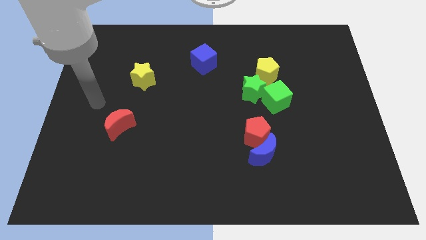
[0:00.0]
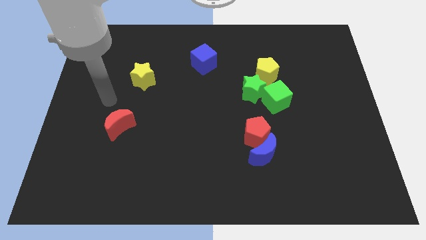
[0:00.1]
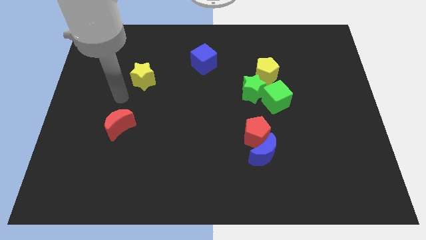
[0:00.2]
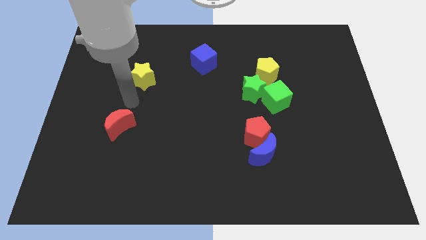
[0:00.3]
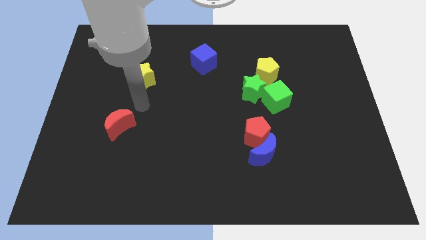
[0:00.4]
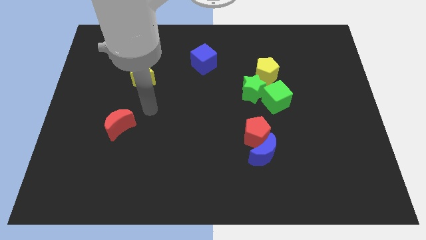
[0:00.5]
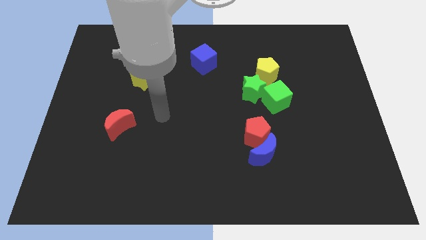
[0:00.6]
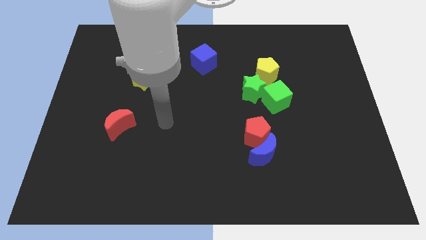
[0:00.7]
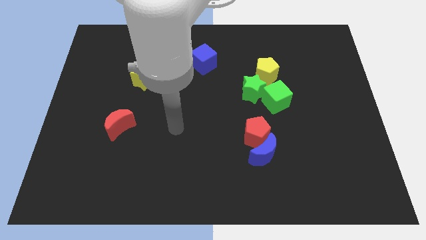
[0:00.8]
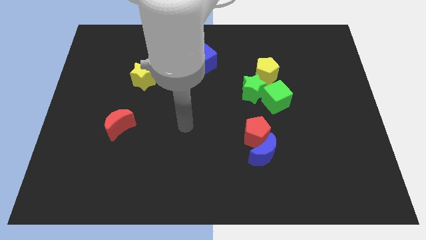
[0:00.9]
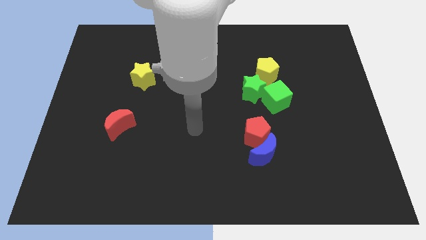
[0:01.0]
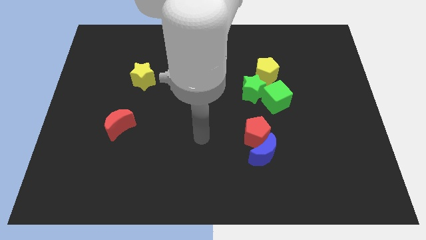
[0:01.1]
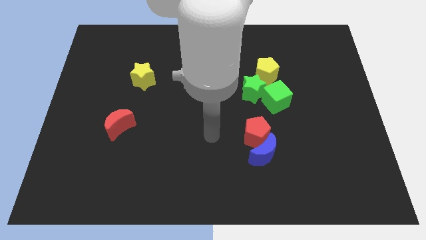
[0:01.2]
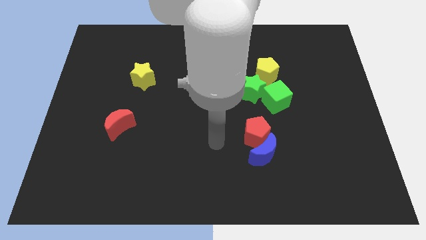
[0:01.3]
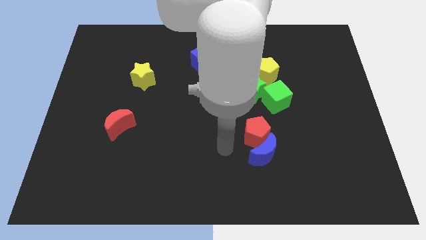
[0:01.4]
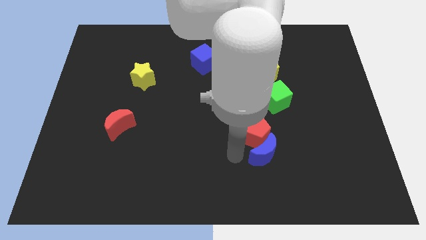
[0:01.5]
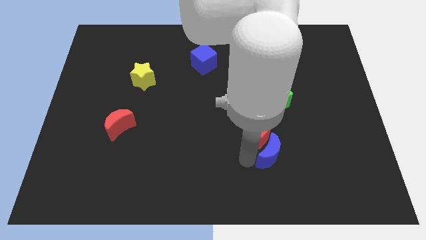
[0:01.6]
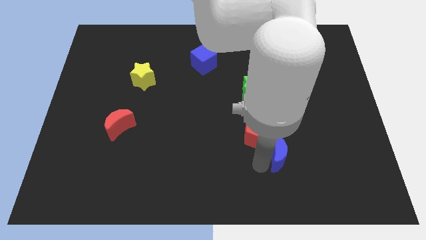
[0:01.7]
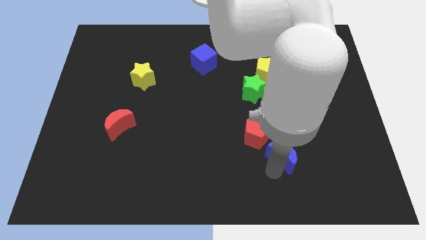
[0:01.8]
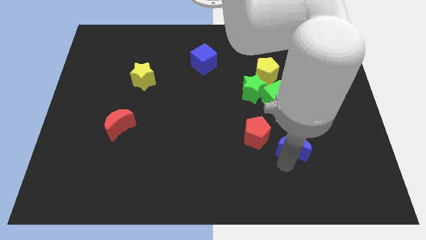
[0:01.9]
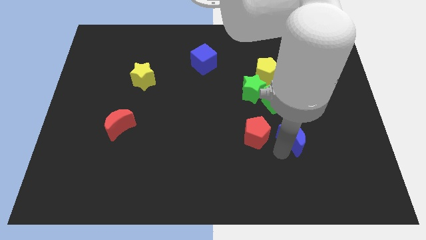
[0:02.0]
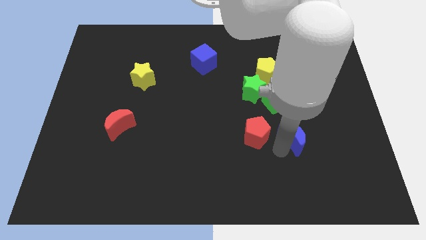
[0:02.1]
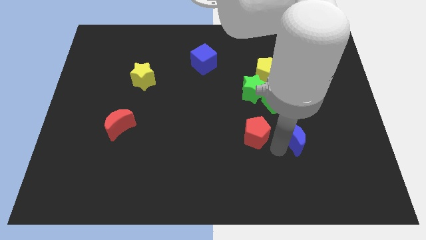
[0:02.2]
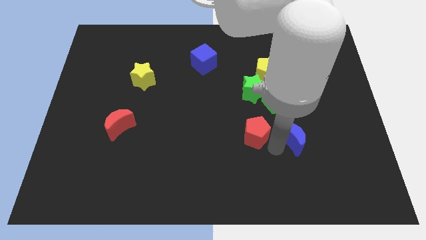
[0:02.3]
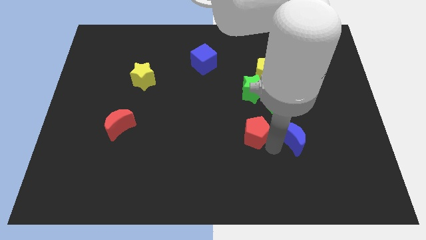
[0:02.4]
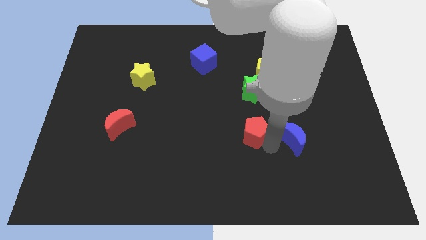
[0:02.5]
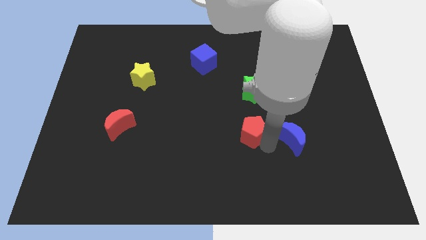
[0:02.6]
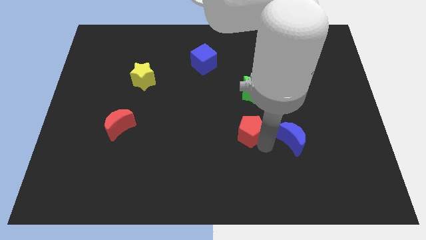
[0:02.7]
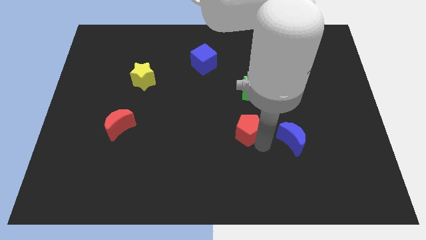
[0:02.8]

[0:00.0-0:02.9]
pull the red pentagon apart from the blue moon

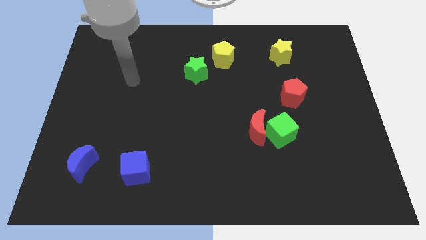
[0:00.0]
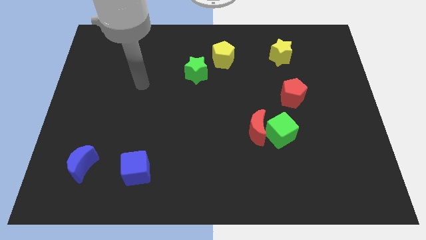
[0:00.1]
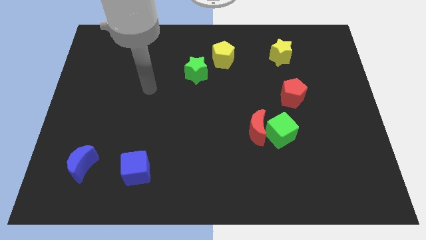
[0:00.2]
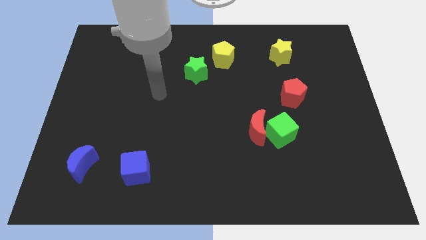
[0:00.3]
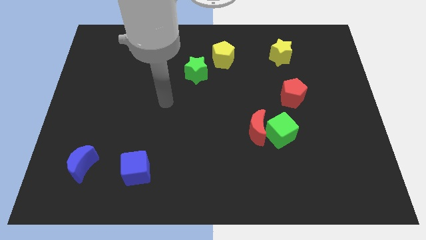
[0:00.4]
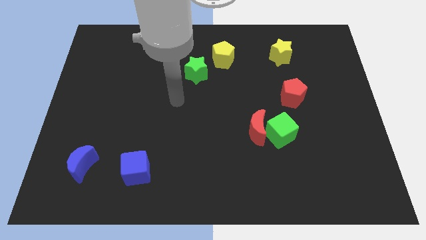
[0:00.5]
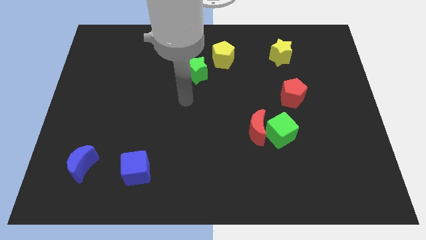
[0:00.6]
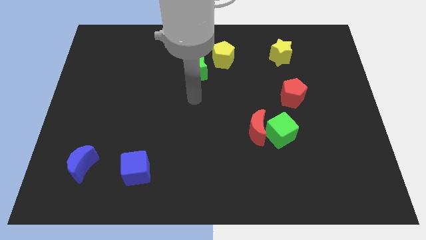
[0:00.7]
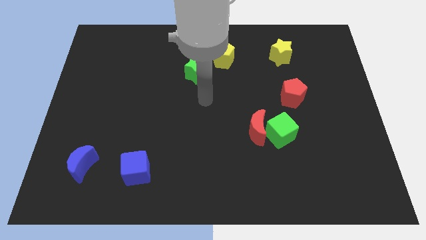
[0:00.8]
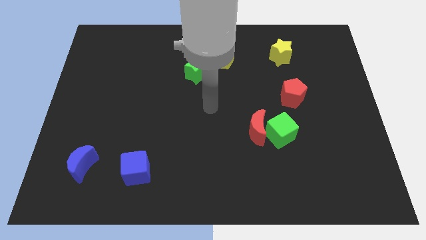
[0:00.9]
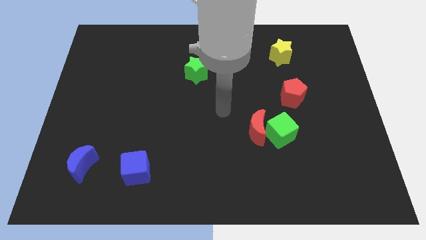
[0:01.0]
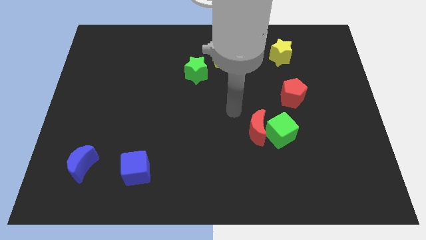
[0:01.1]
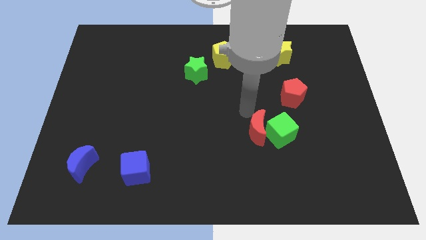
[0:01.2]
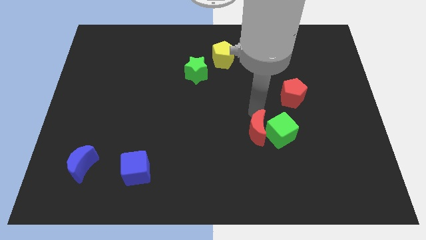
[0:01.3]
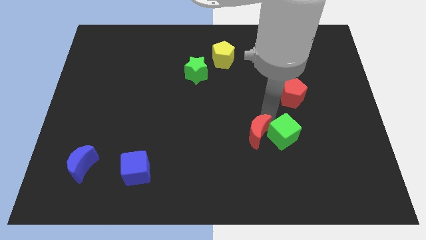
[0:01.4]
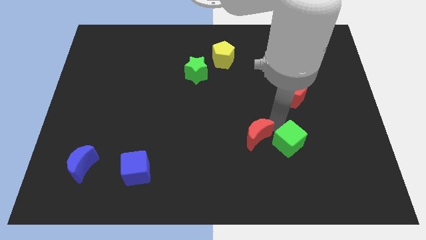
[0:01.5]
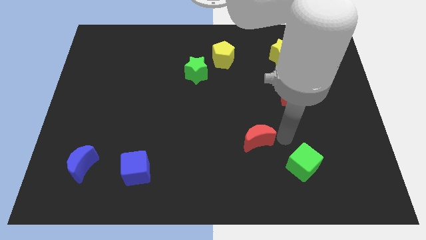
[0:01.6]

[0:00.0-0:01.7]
move the red moon away from the green cube

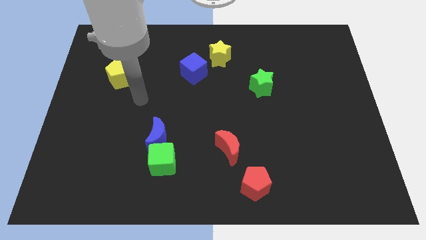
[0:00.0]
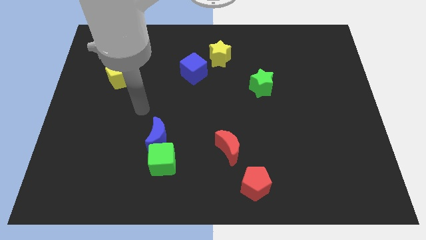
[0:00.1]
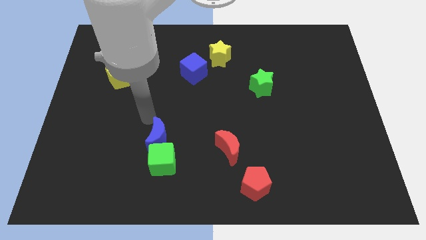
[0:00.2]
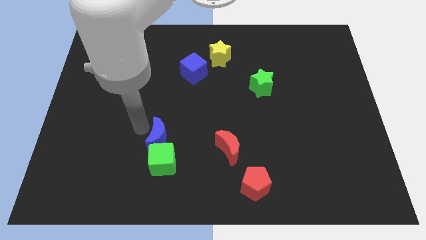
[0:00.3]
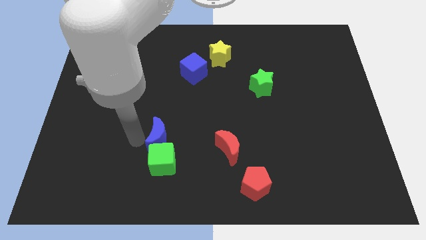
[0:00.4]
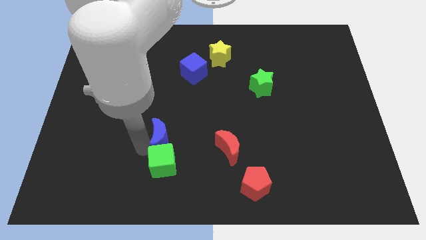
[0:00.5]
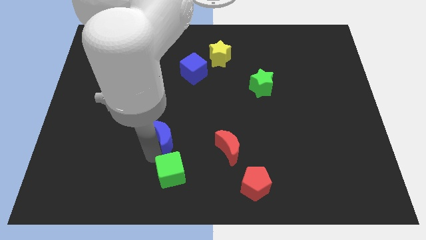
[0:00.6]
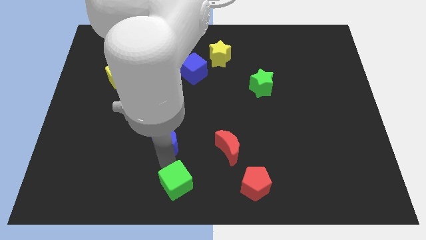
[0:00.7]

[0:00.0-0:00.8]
move the blue moon away from the green cube

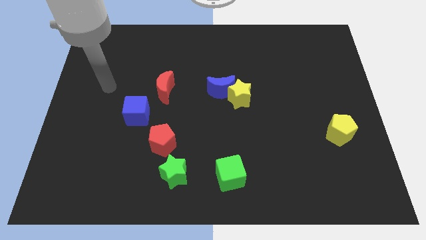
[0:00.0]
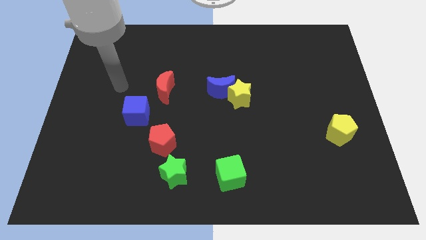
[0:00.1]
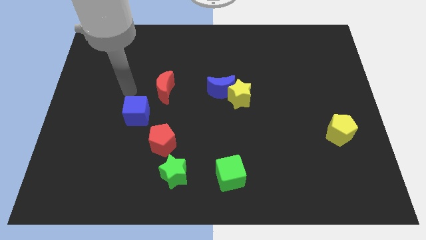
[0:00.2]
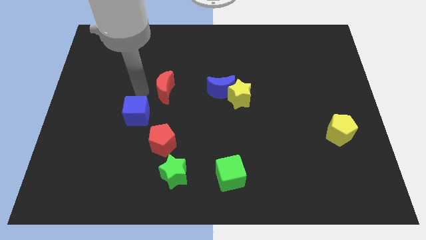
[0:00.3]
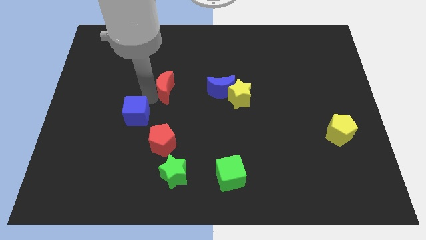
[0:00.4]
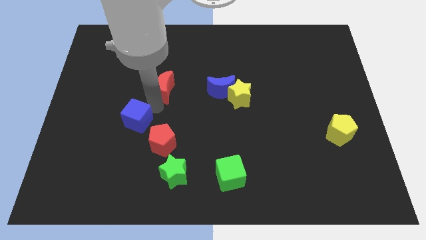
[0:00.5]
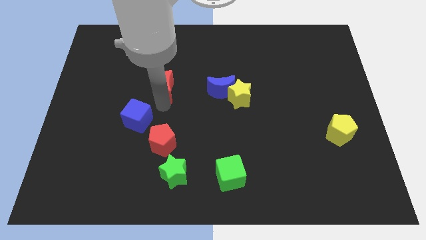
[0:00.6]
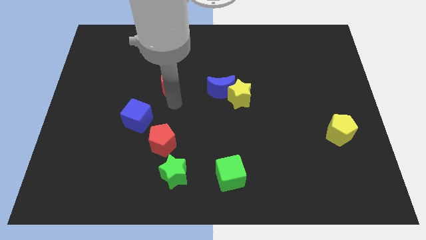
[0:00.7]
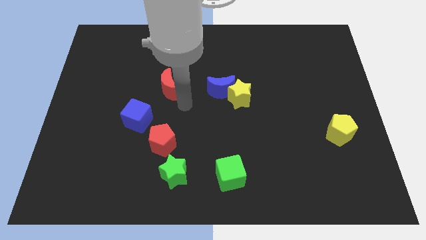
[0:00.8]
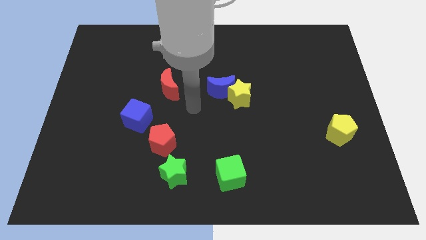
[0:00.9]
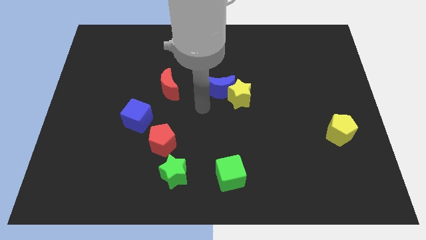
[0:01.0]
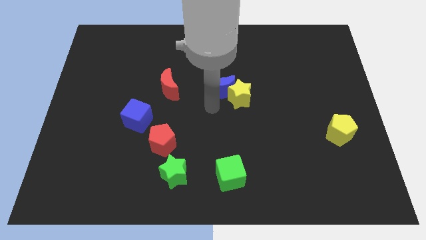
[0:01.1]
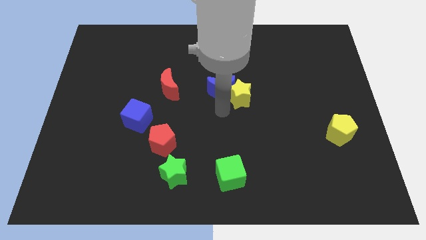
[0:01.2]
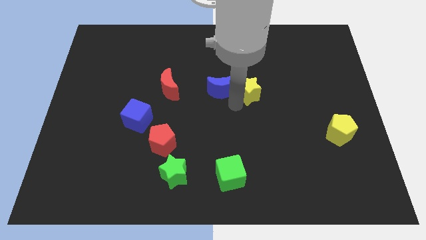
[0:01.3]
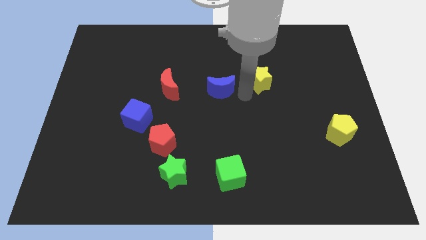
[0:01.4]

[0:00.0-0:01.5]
move the blue moon away from the yellow star

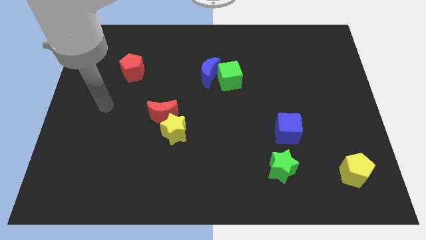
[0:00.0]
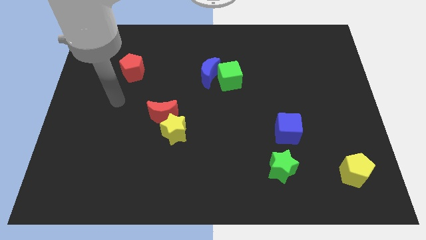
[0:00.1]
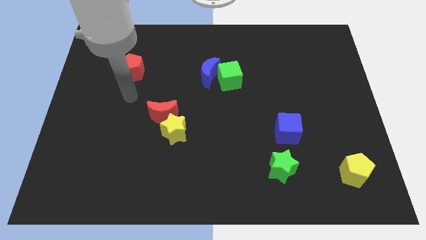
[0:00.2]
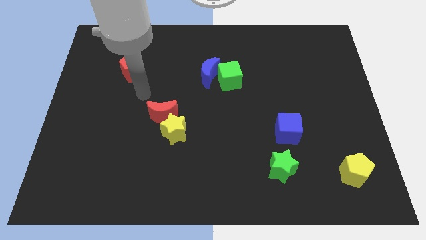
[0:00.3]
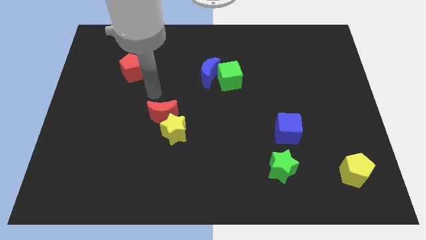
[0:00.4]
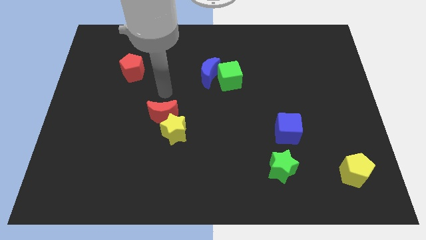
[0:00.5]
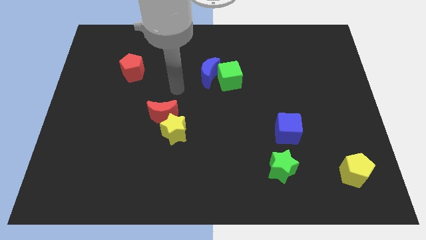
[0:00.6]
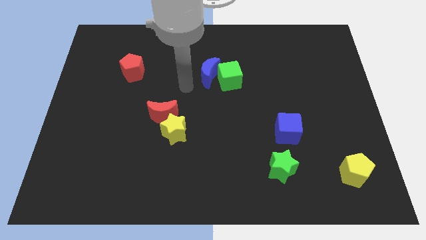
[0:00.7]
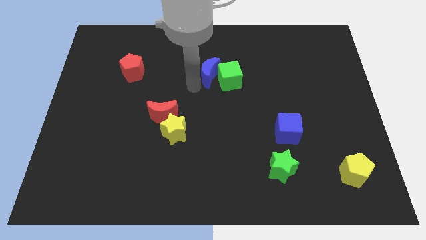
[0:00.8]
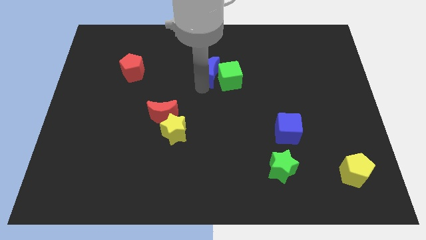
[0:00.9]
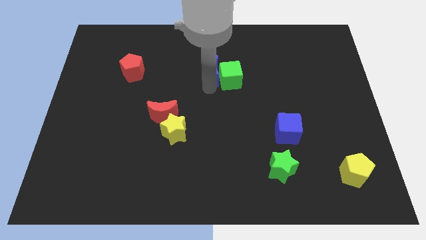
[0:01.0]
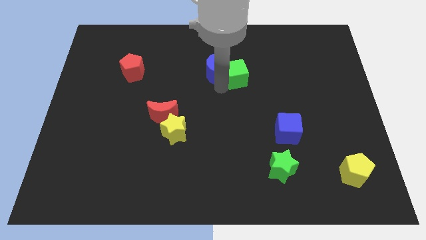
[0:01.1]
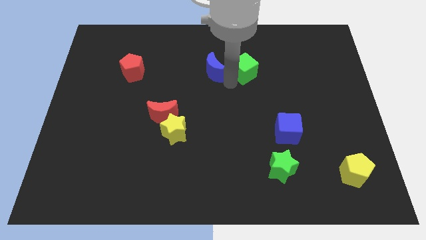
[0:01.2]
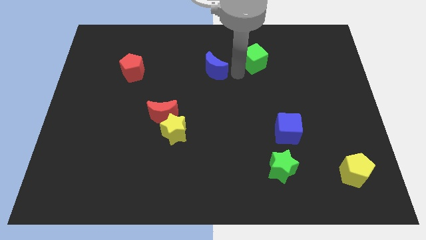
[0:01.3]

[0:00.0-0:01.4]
pull the blue moon apart from the green cube

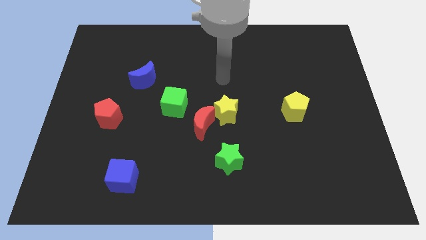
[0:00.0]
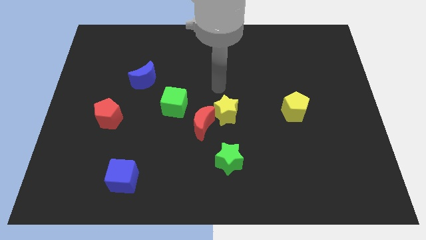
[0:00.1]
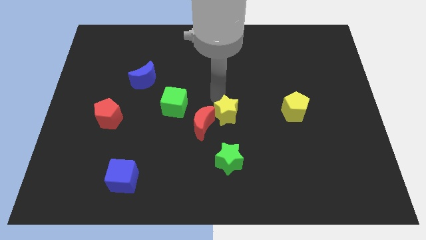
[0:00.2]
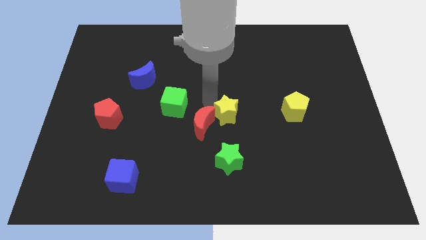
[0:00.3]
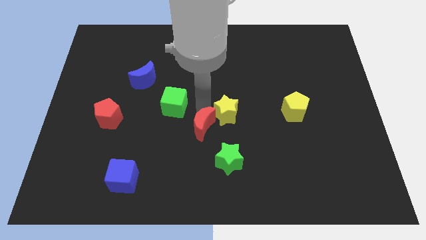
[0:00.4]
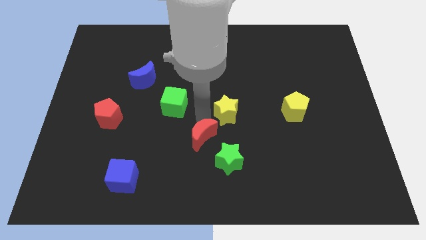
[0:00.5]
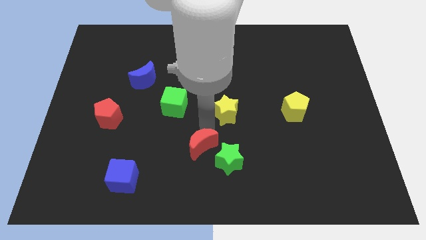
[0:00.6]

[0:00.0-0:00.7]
pull the yellow star apart from the red moon

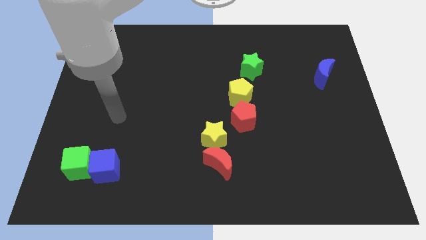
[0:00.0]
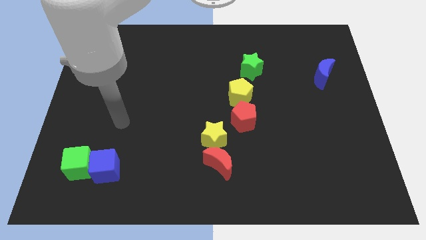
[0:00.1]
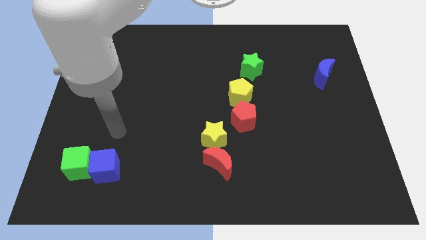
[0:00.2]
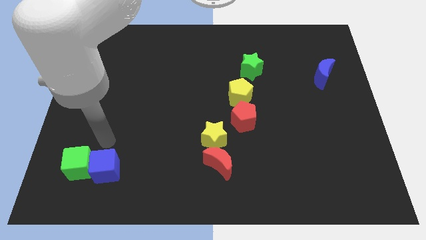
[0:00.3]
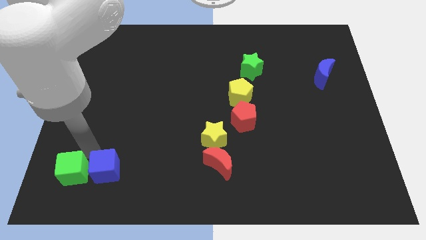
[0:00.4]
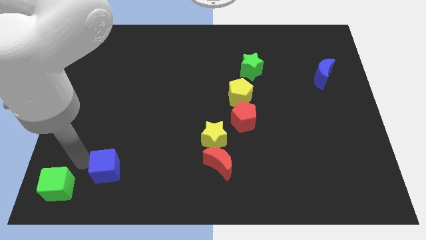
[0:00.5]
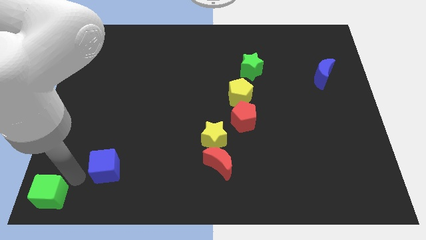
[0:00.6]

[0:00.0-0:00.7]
separate the blue cube from the green cube
